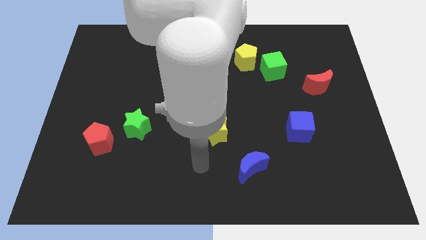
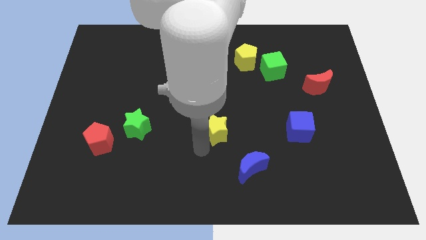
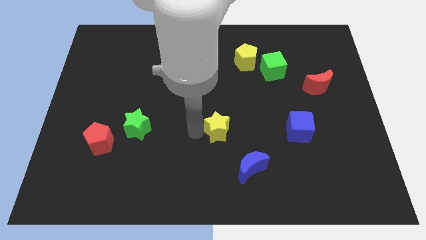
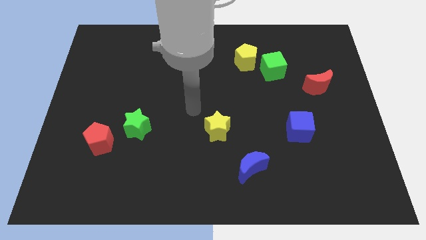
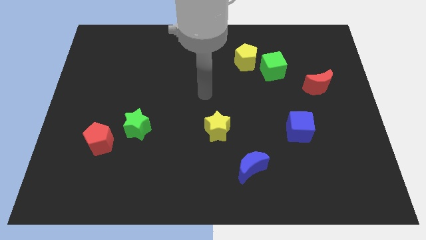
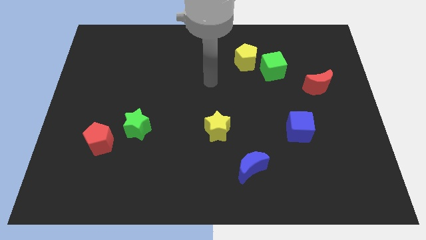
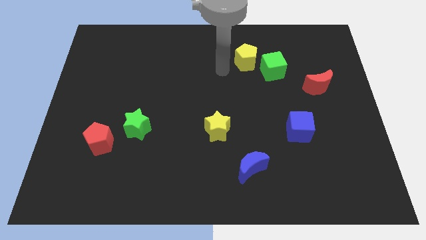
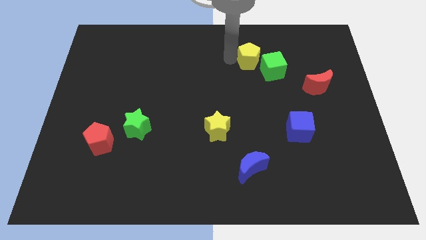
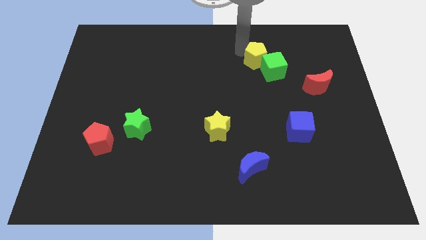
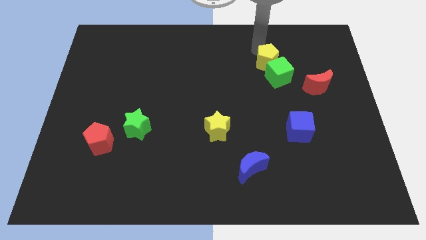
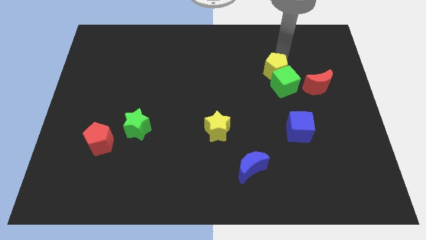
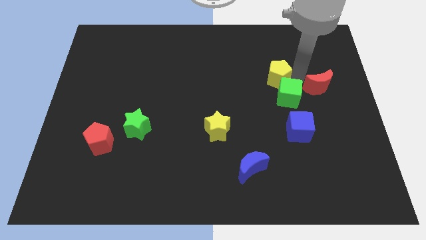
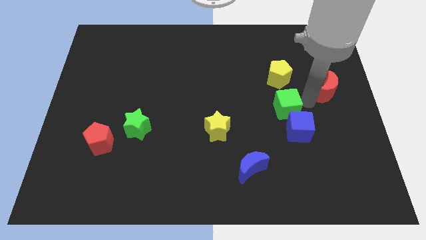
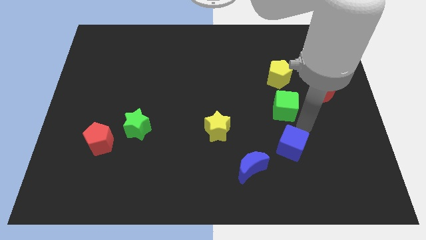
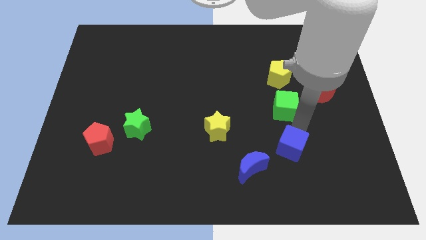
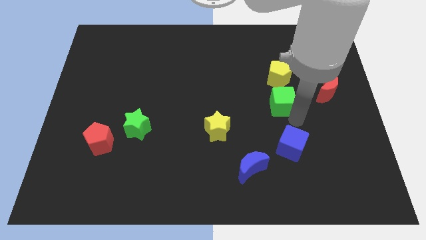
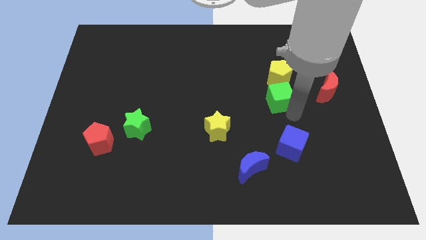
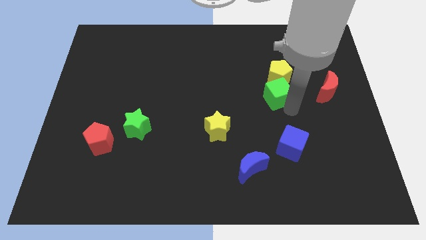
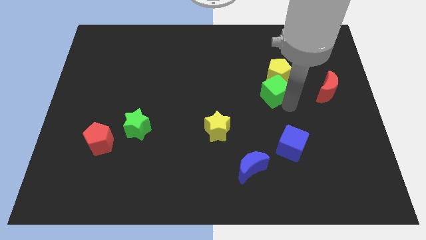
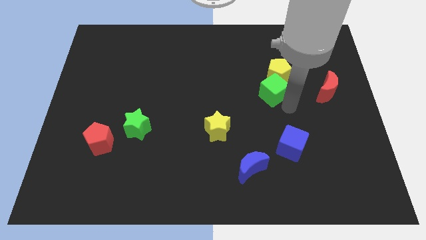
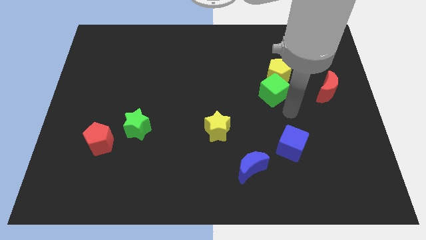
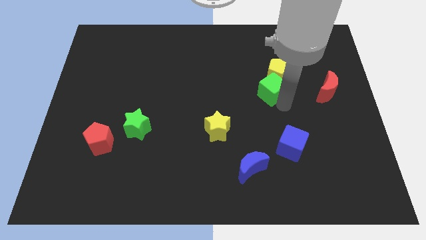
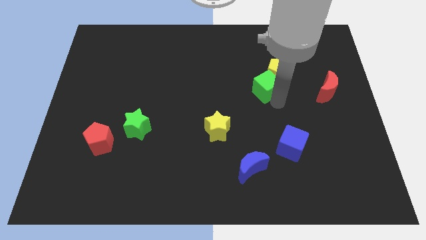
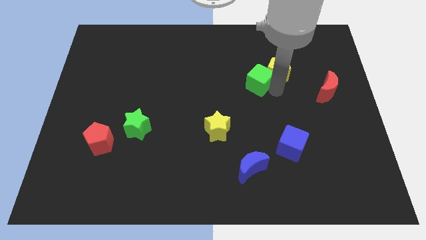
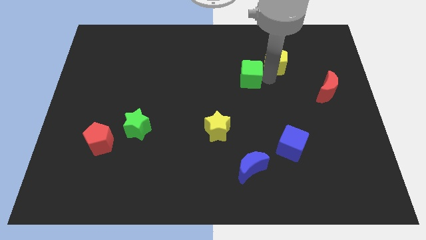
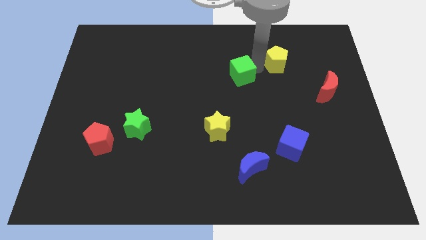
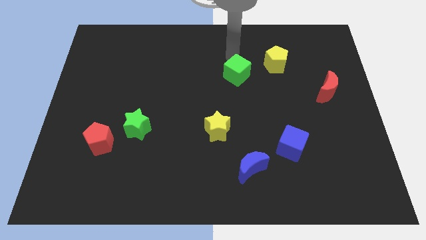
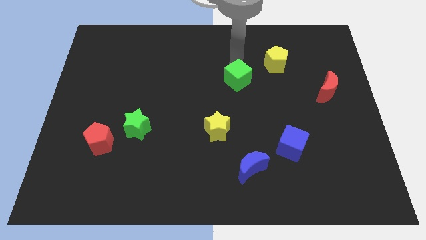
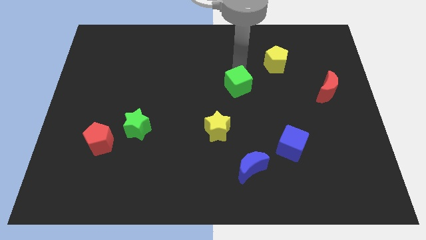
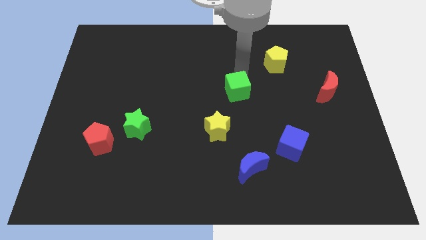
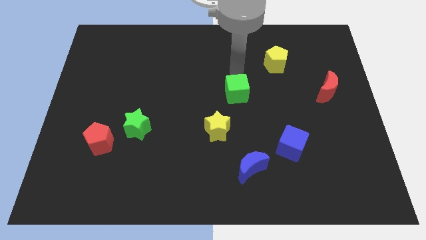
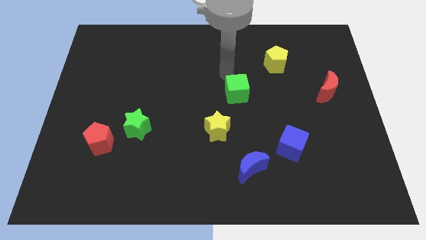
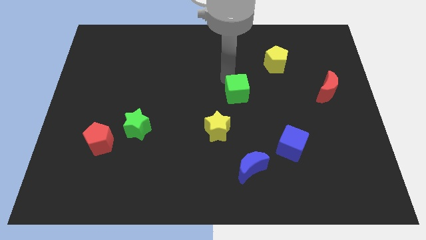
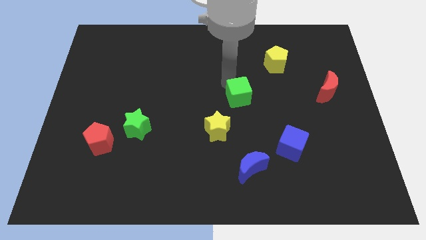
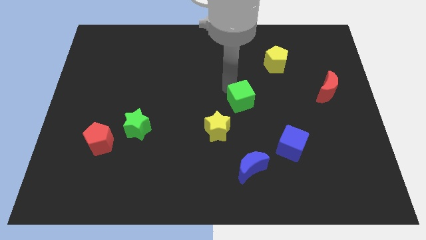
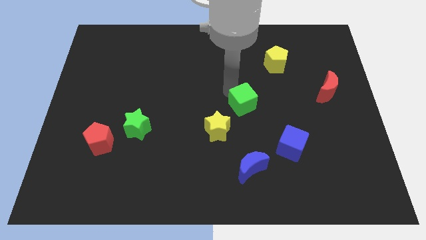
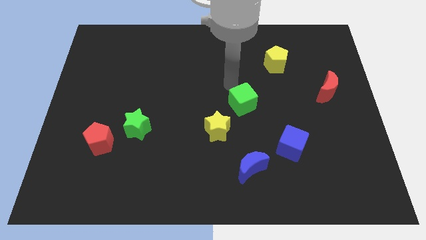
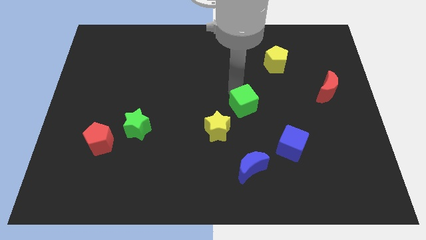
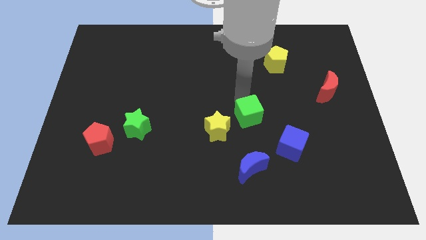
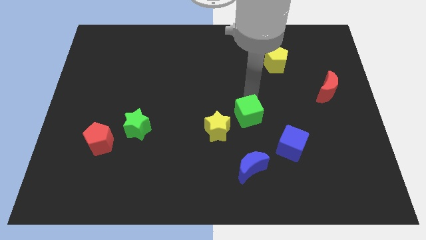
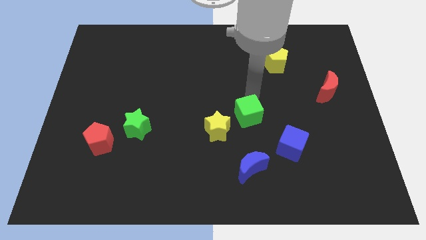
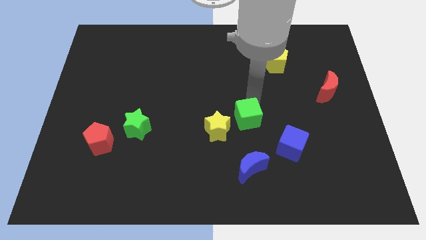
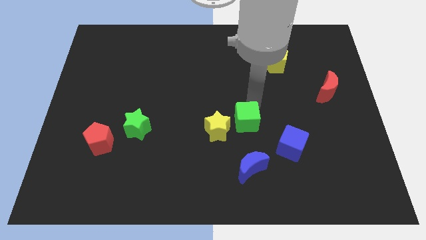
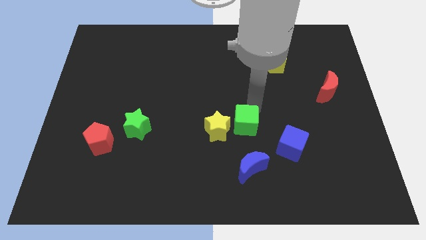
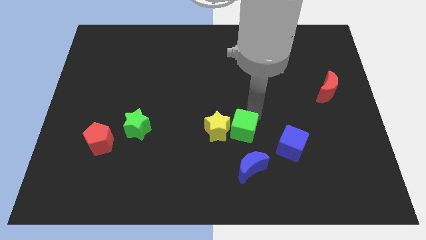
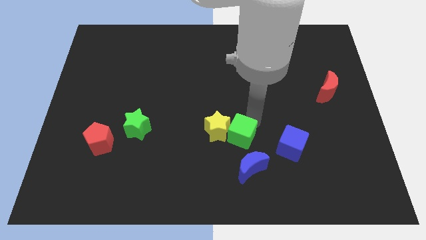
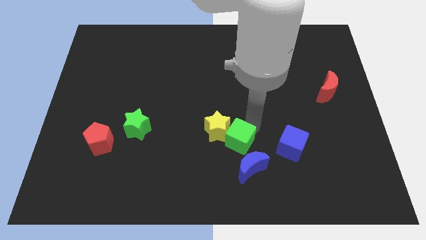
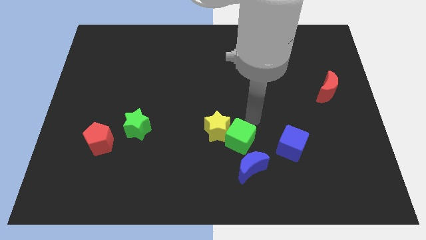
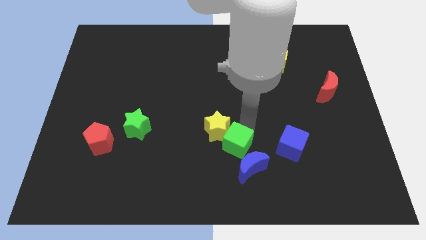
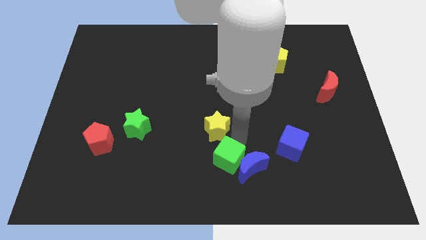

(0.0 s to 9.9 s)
put the green cube to the bottom

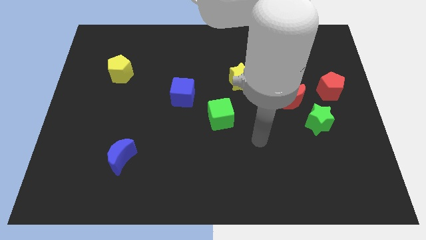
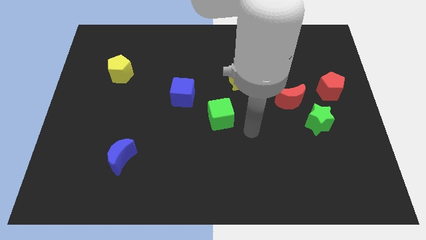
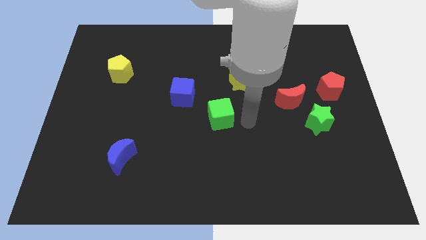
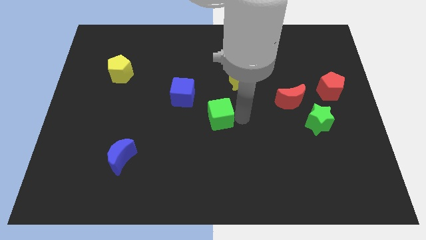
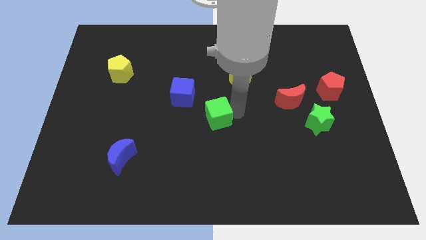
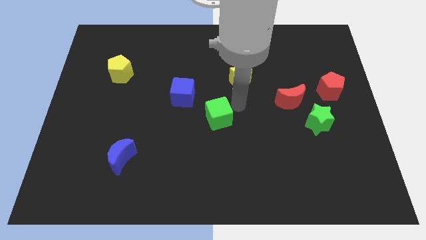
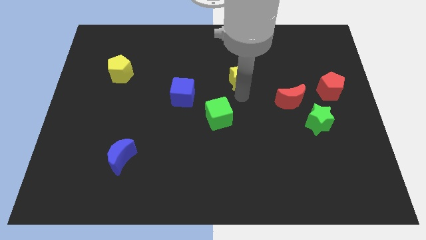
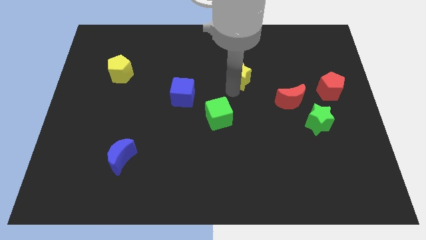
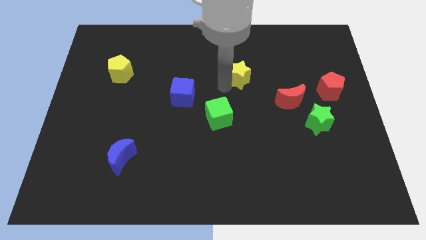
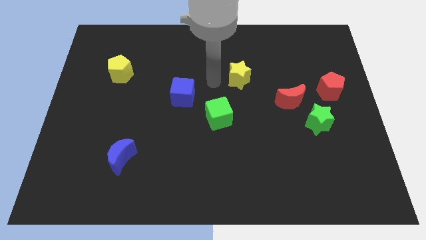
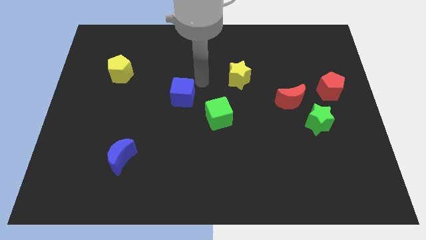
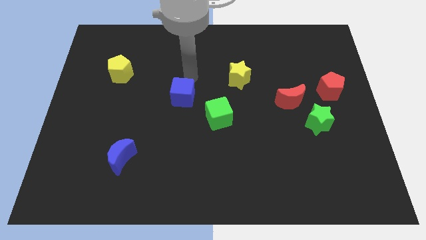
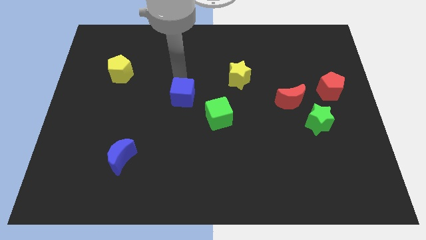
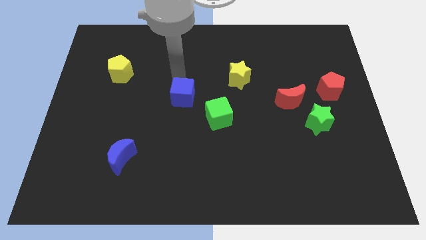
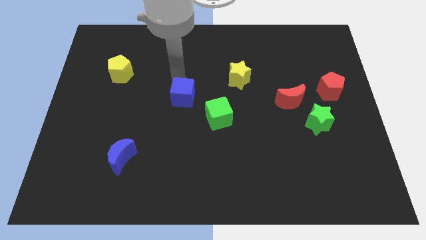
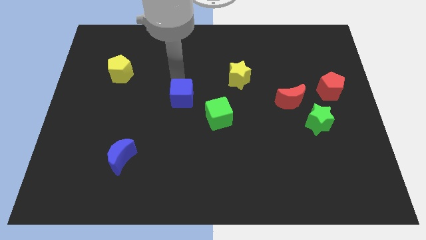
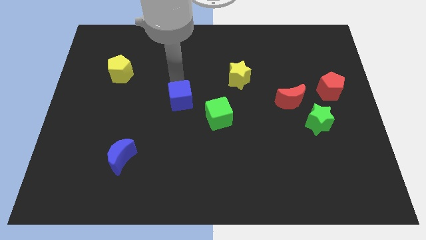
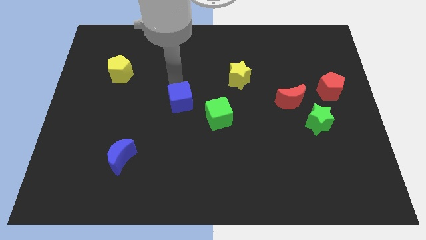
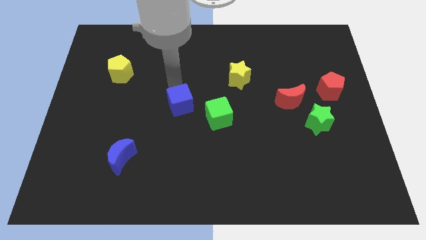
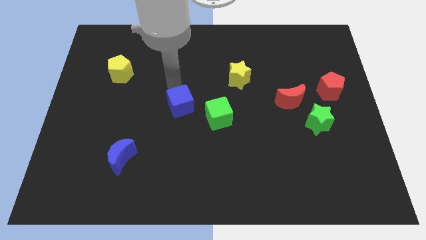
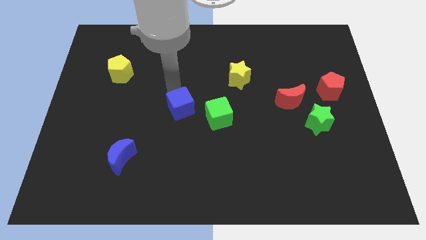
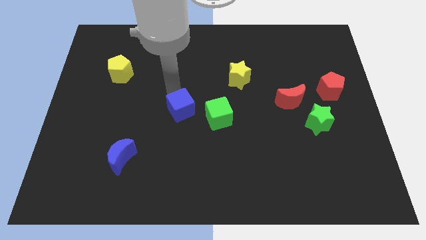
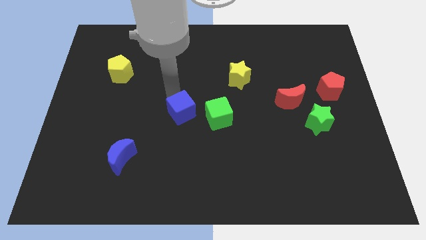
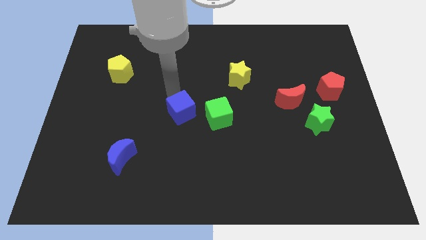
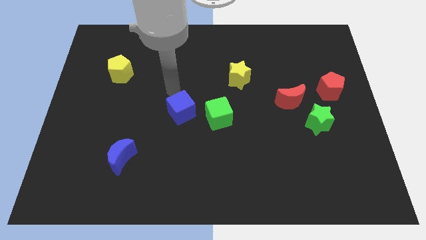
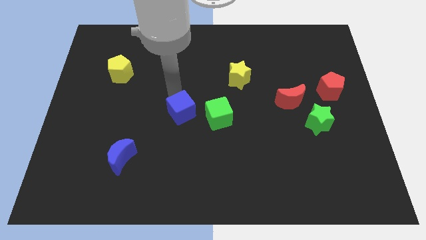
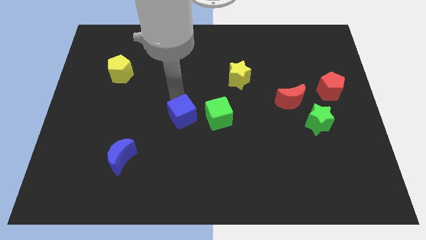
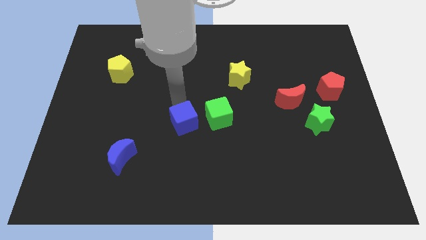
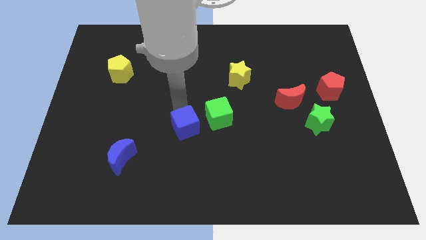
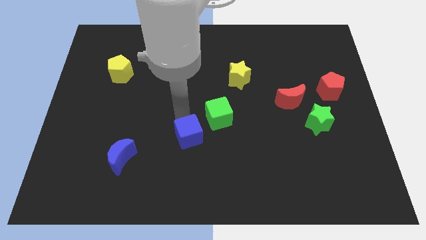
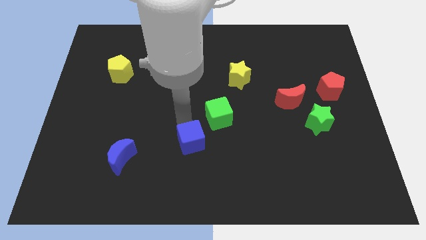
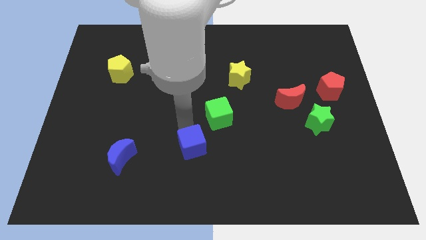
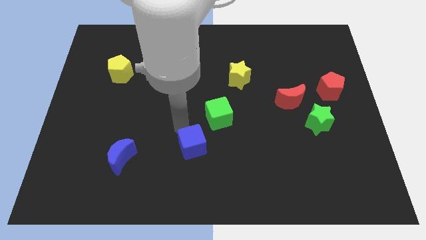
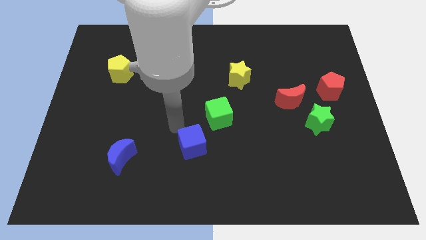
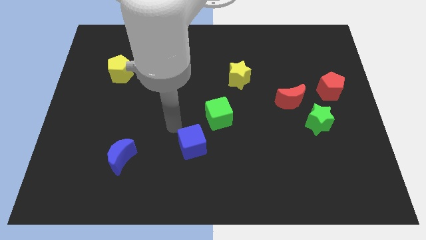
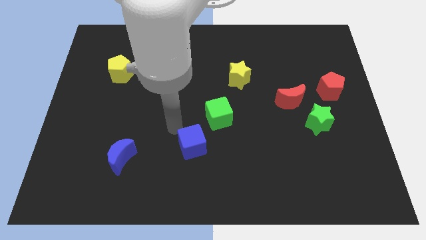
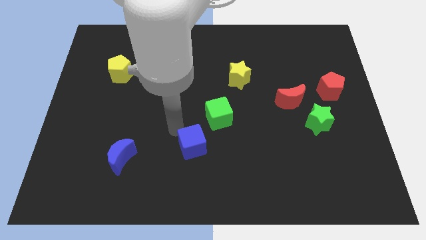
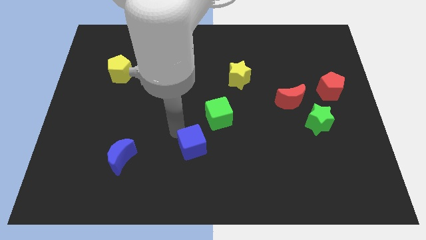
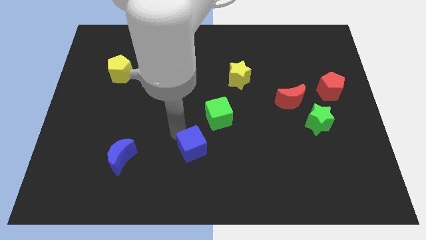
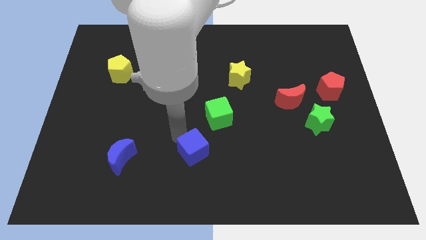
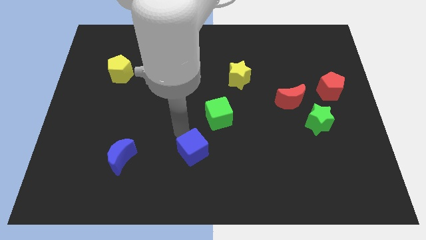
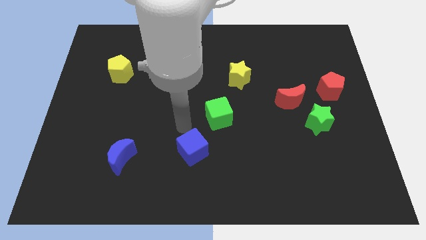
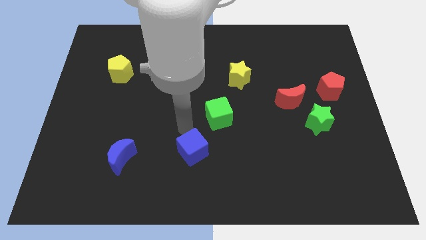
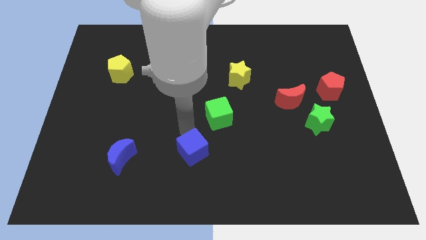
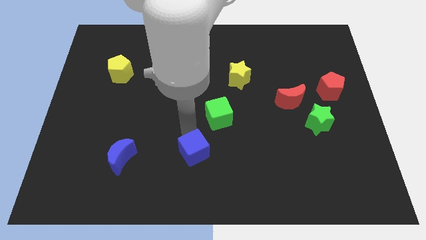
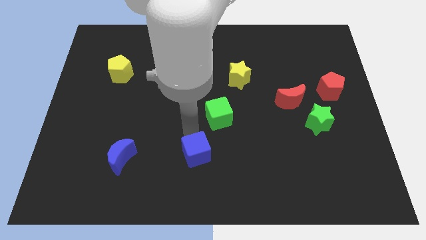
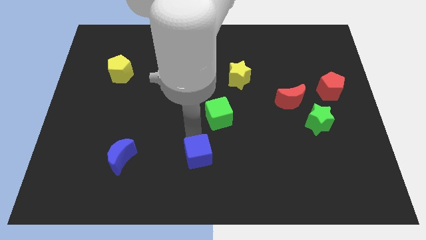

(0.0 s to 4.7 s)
slide the blue cube to the bottom
